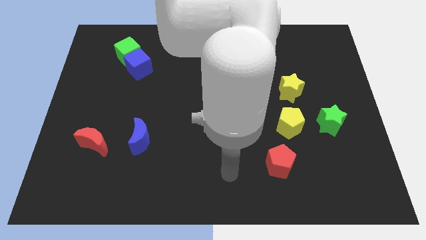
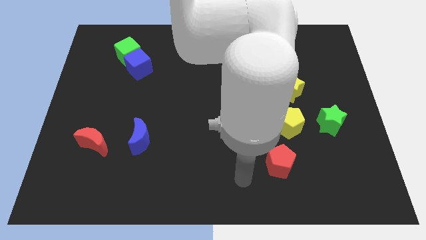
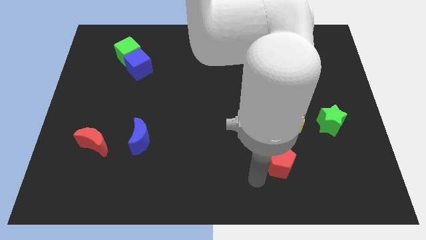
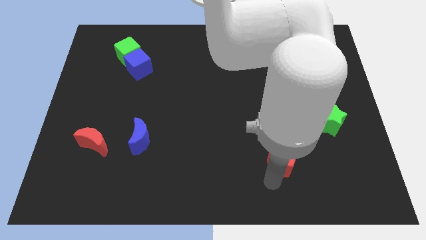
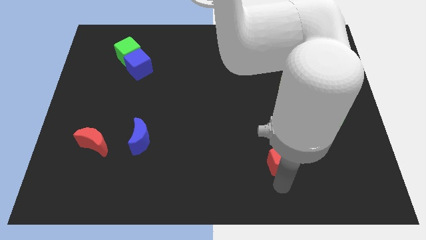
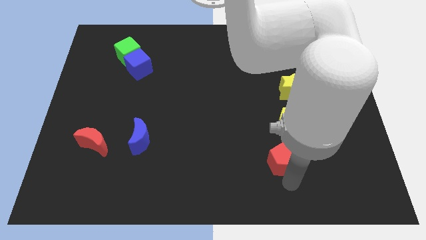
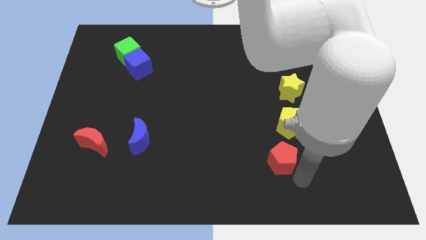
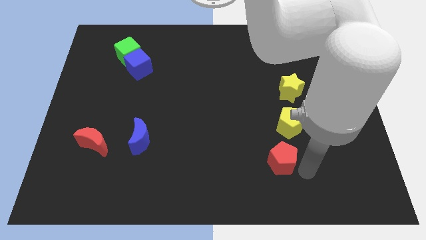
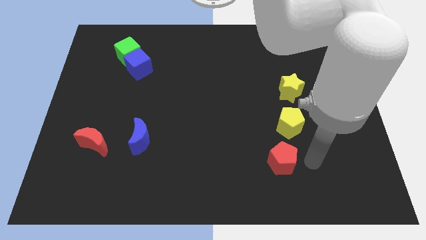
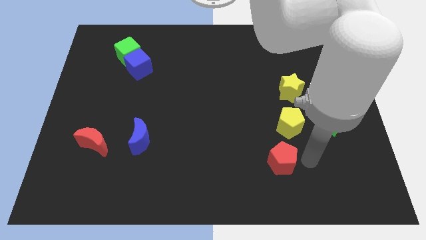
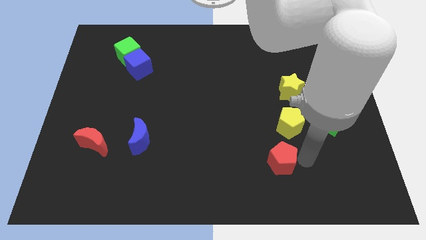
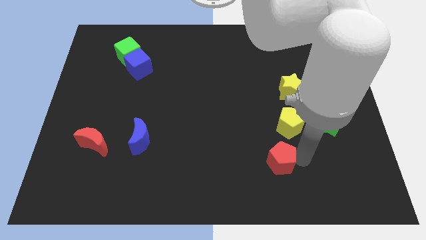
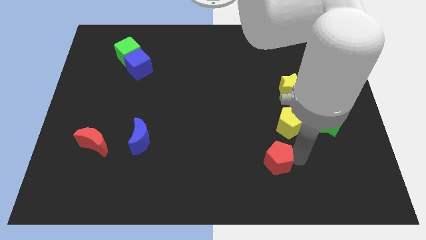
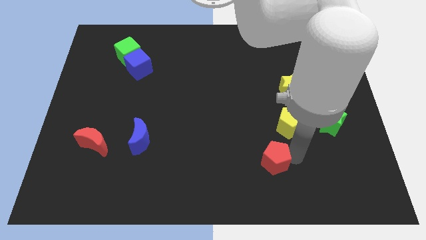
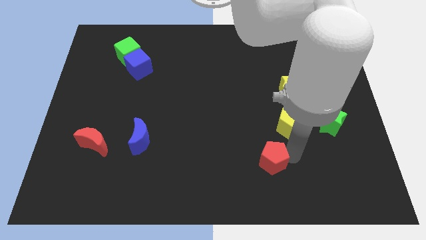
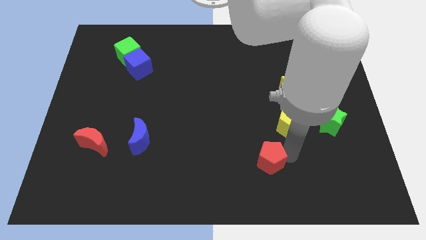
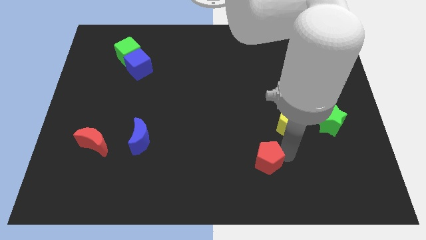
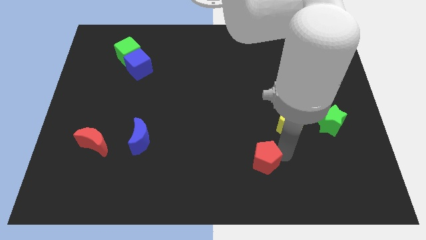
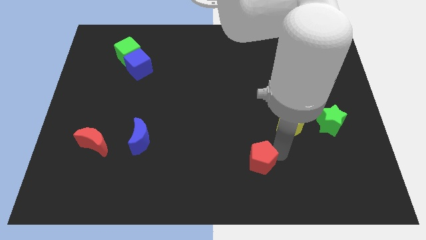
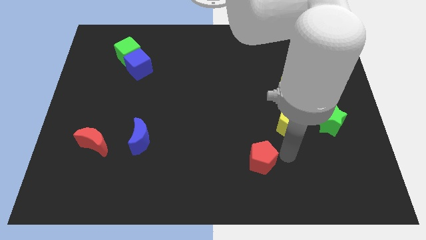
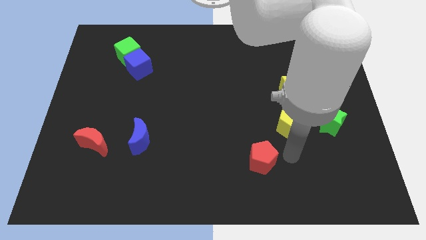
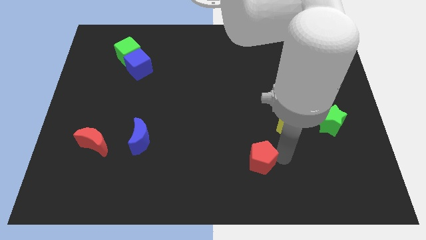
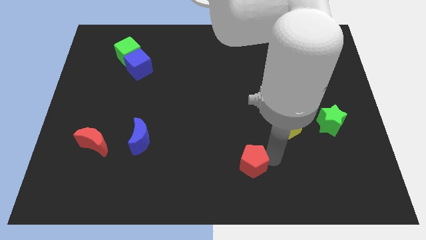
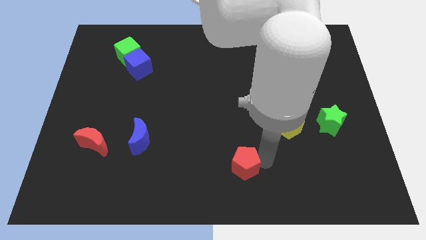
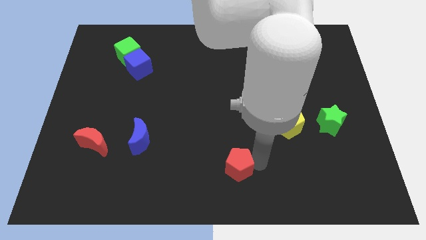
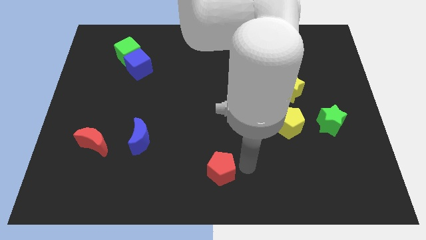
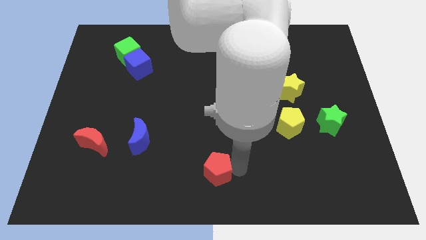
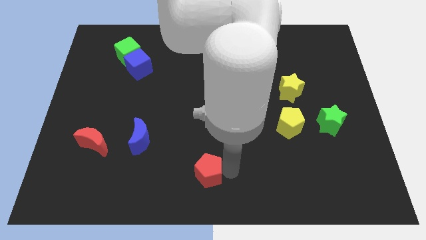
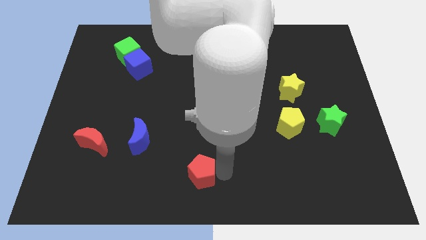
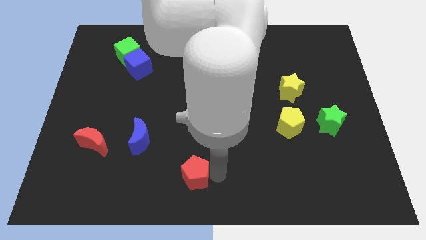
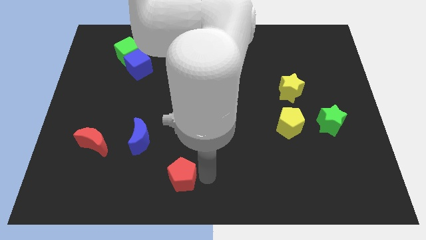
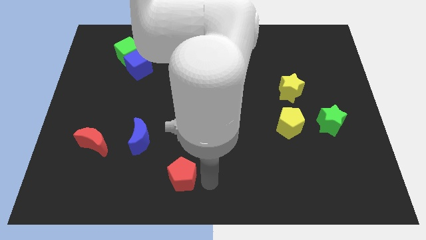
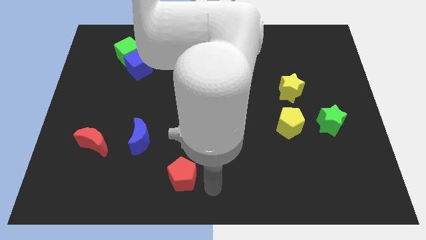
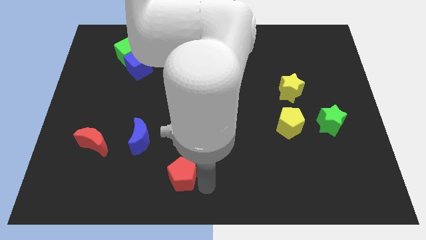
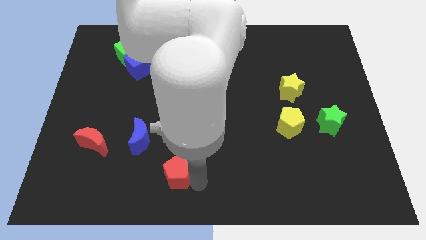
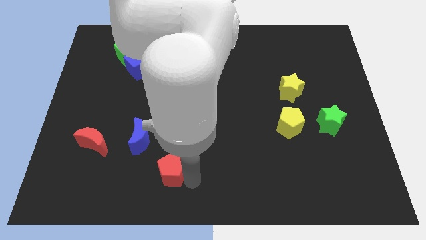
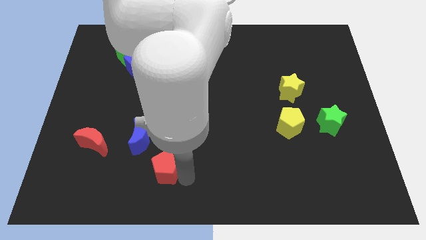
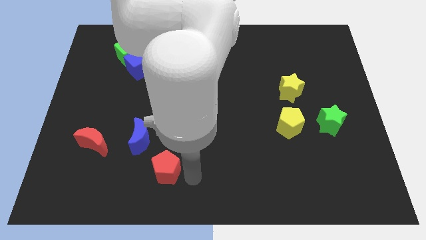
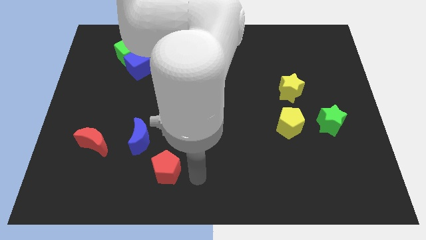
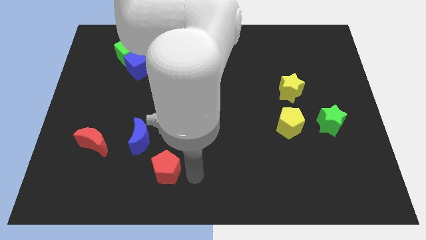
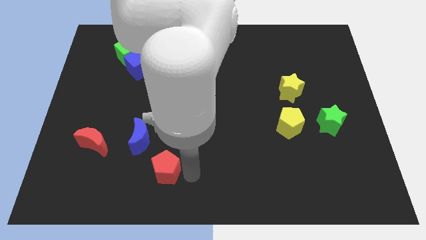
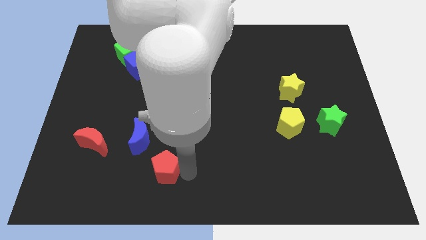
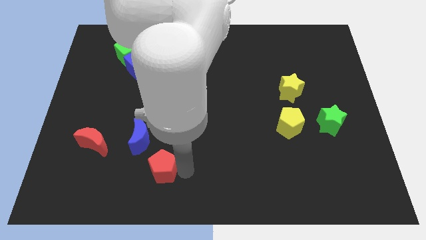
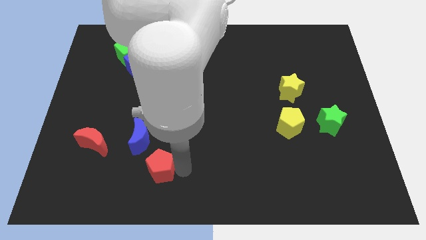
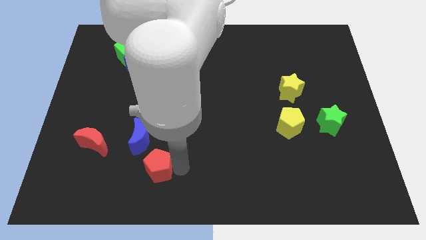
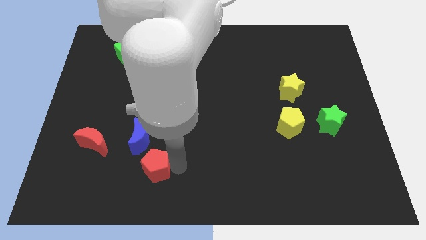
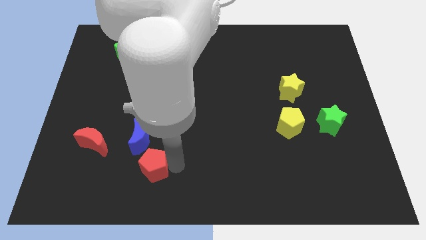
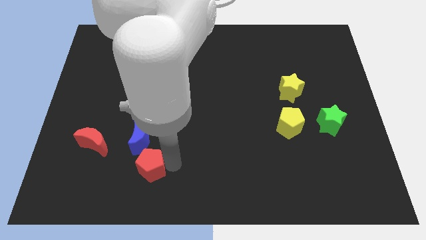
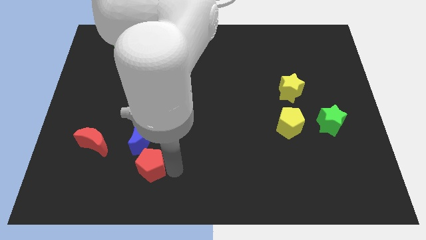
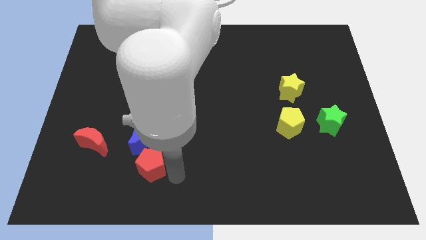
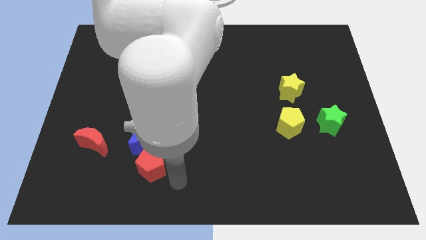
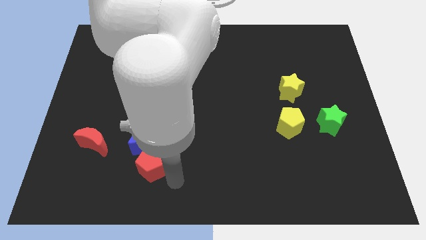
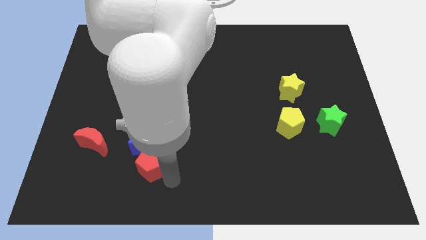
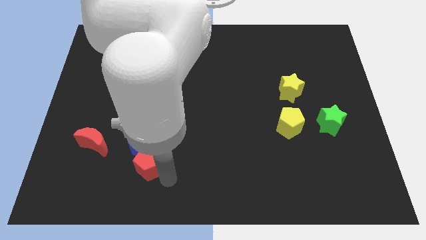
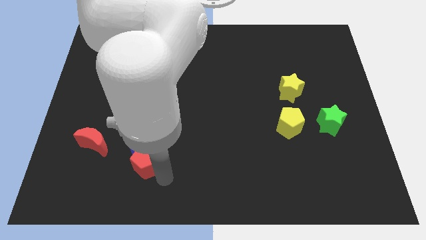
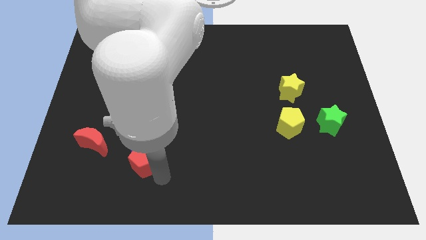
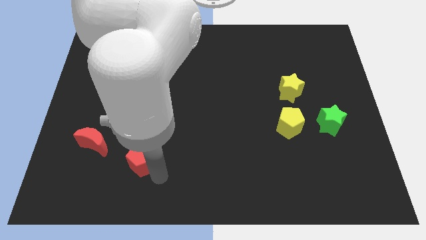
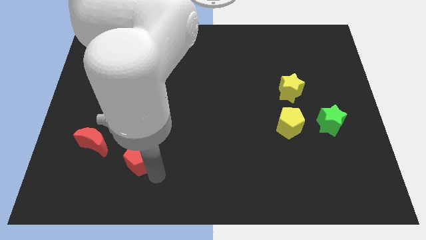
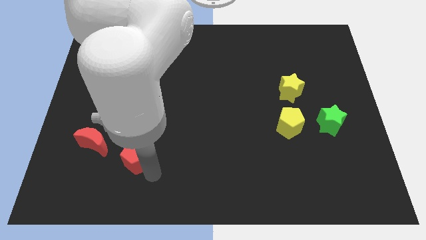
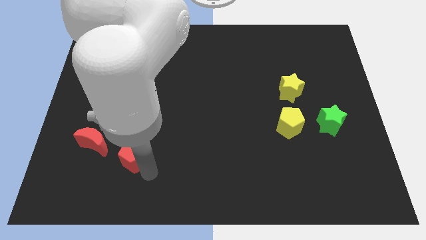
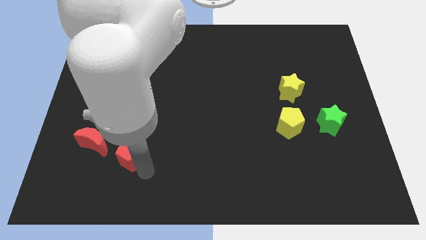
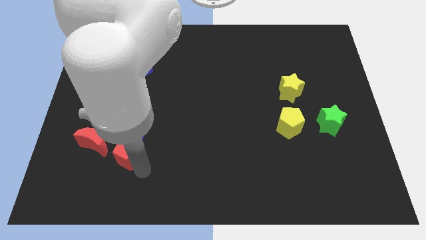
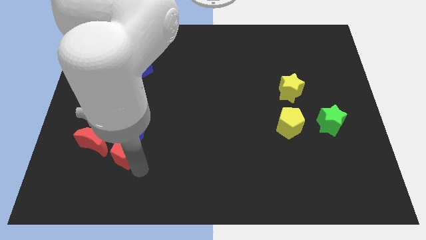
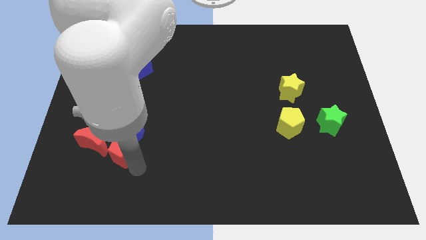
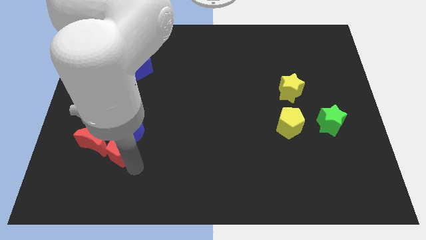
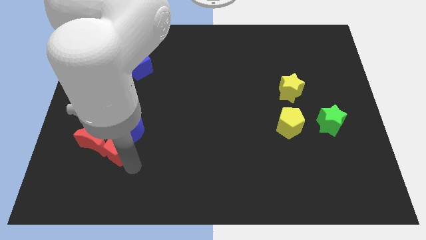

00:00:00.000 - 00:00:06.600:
put the red pentagon to the red moon

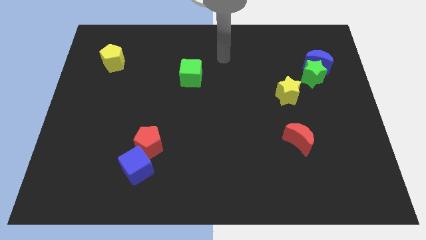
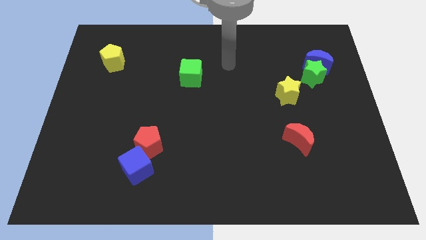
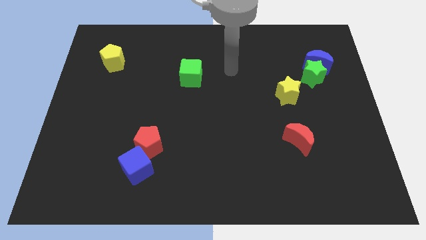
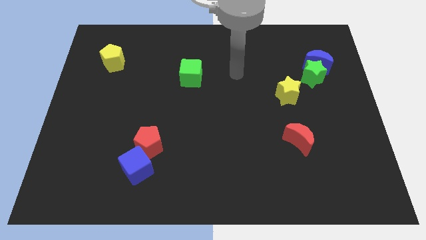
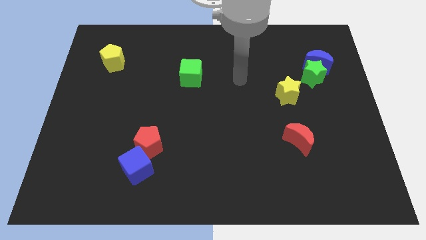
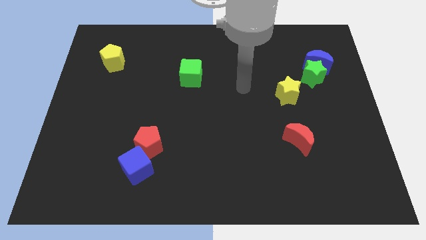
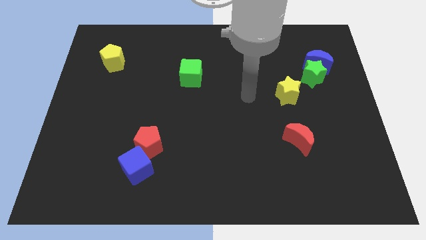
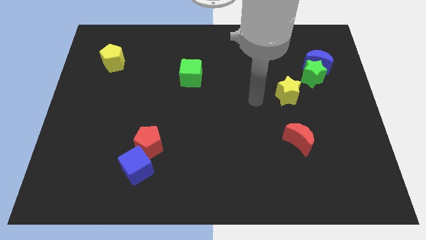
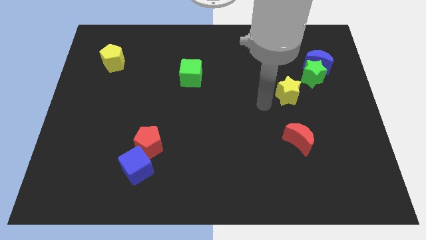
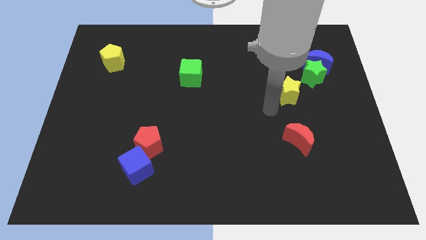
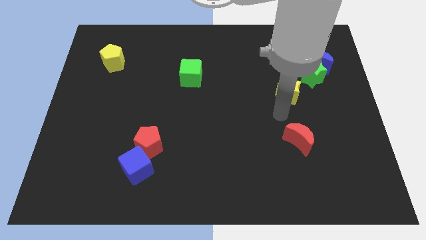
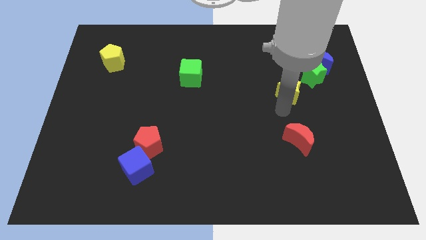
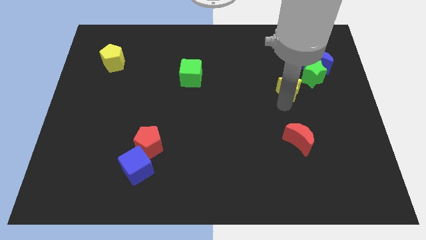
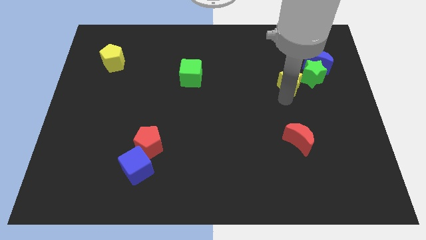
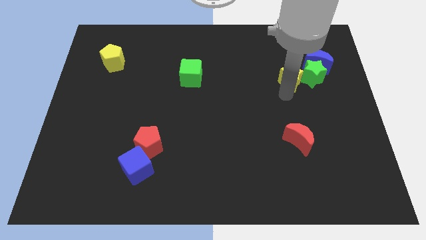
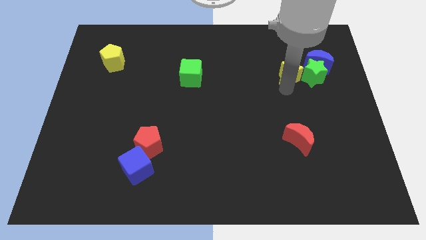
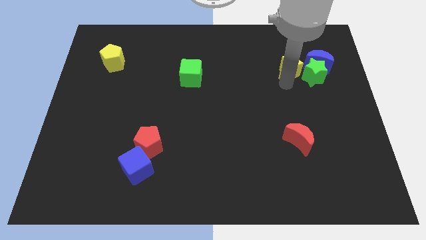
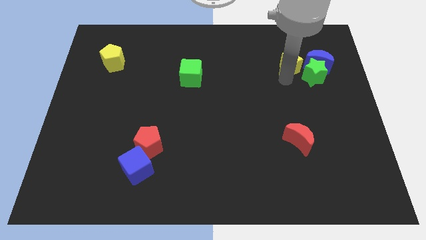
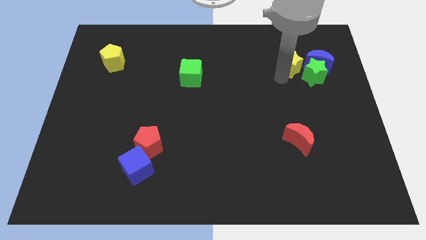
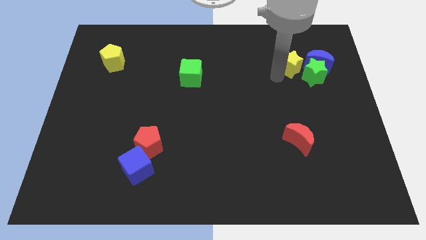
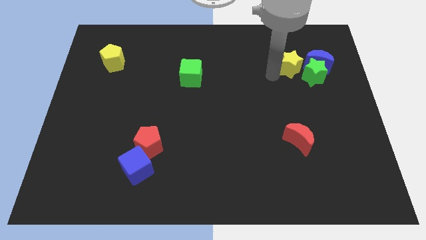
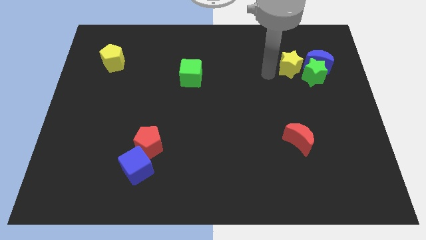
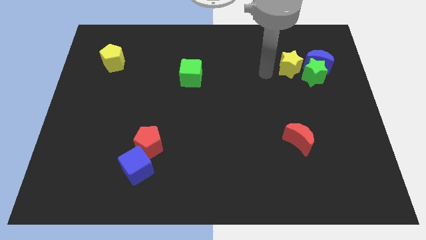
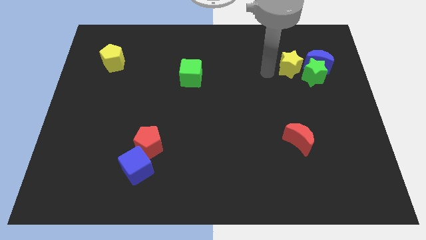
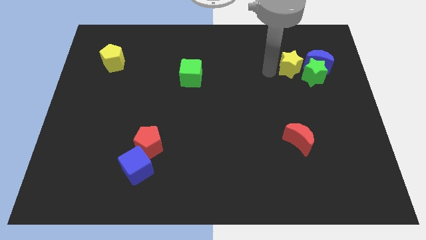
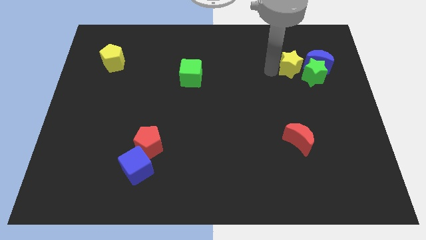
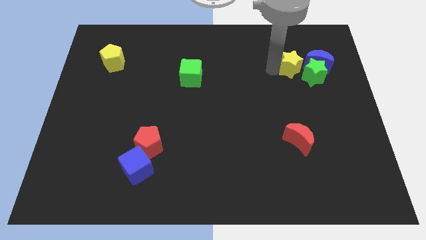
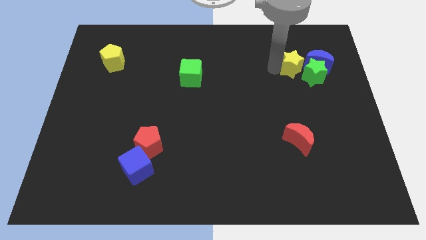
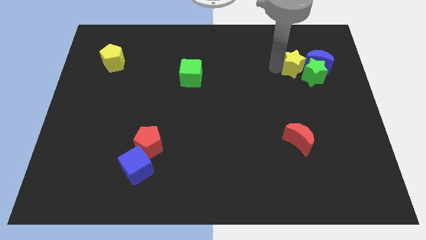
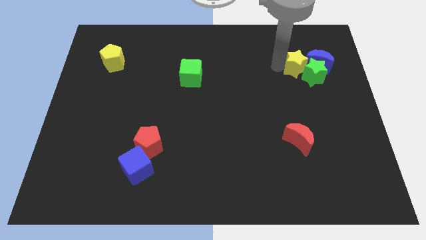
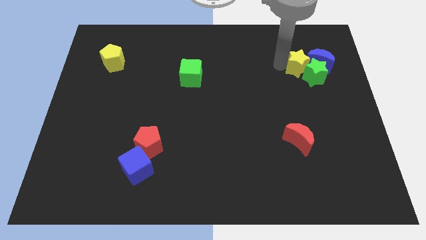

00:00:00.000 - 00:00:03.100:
slide the yellow star towards the blue moon
